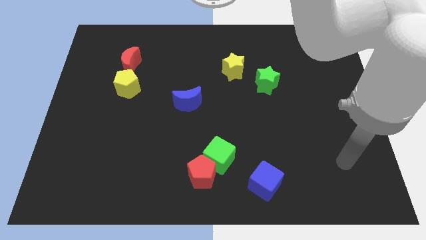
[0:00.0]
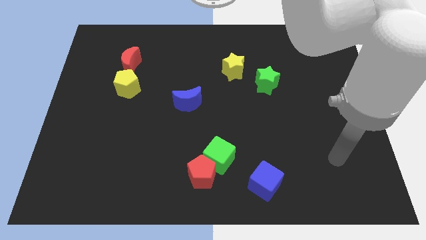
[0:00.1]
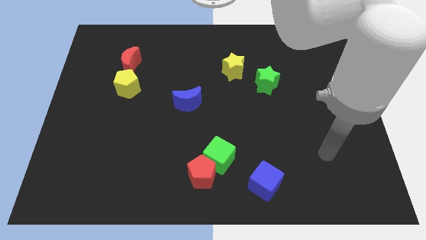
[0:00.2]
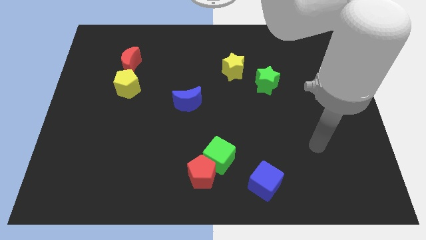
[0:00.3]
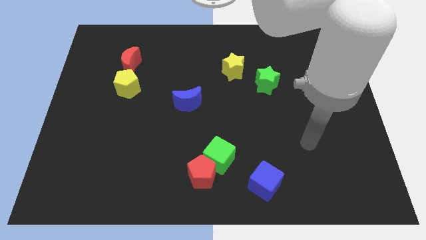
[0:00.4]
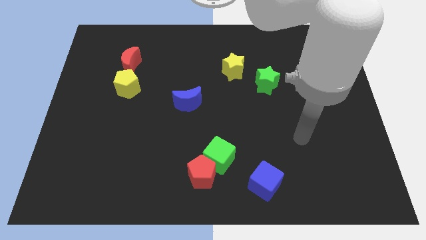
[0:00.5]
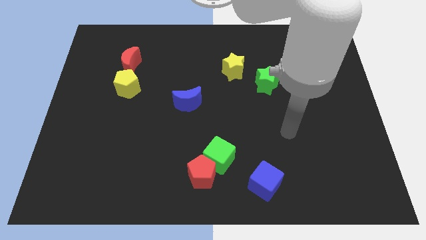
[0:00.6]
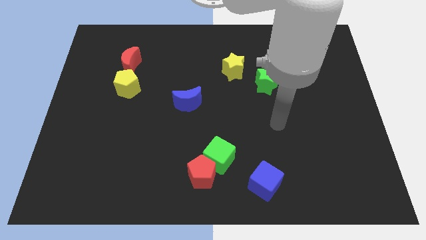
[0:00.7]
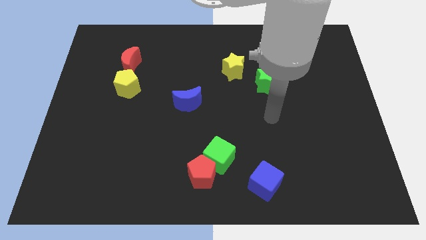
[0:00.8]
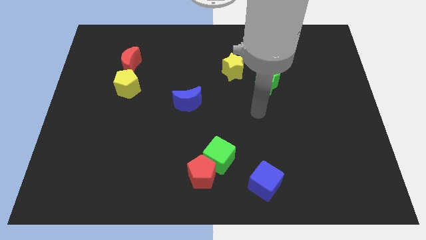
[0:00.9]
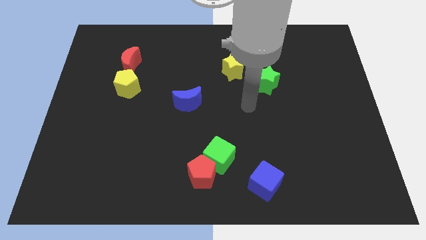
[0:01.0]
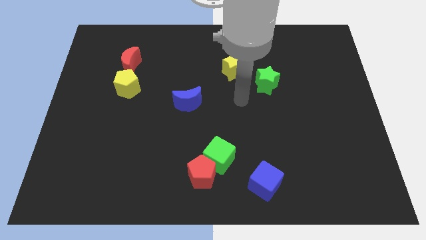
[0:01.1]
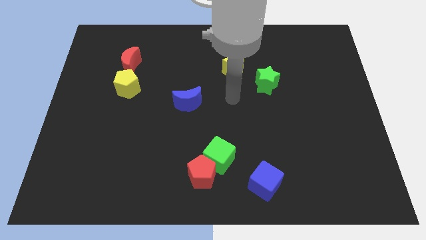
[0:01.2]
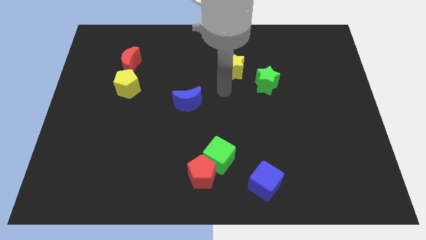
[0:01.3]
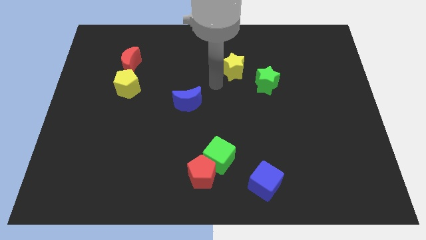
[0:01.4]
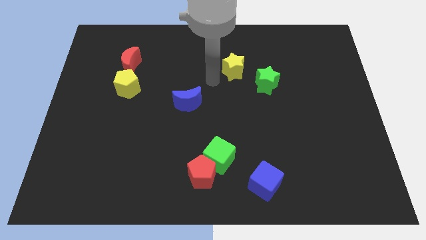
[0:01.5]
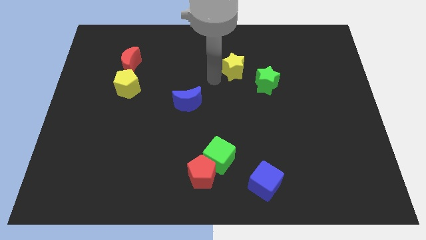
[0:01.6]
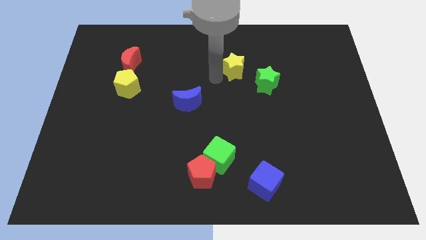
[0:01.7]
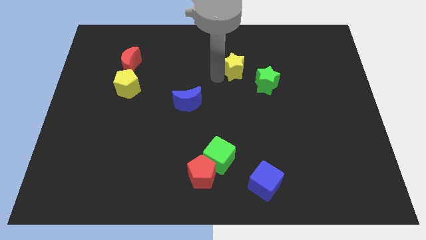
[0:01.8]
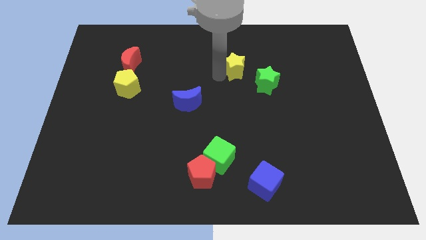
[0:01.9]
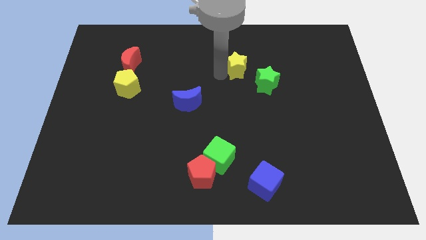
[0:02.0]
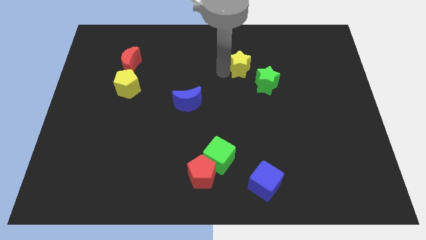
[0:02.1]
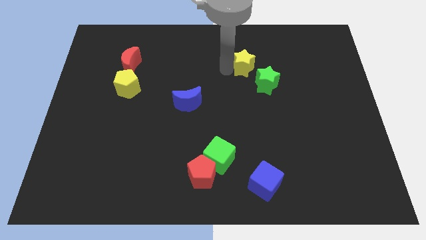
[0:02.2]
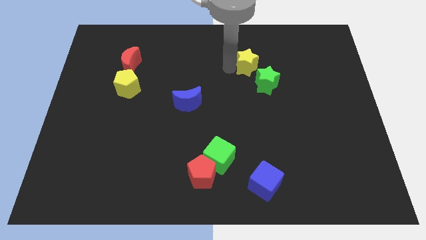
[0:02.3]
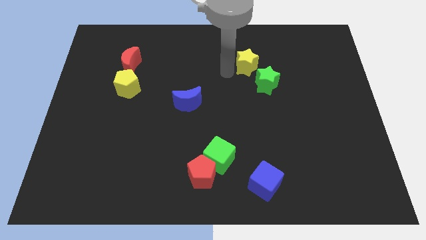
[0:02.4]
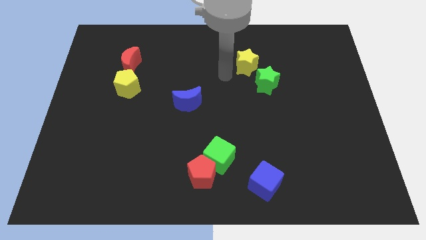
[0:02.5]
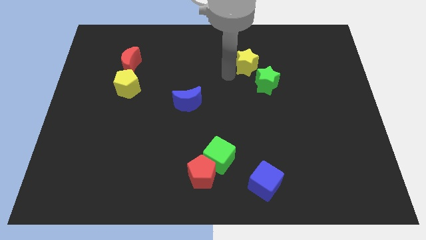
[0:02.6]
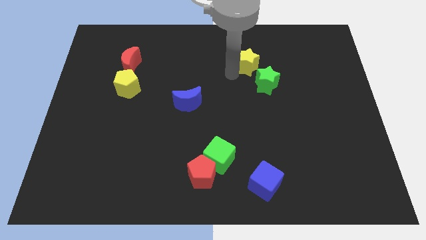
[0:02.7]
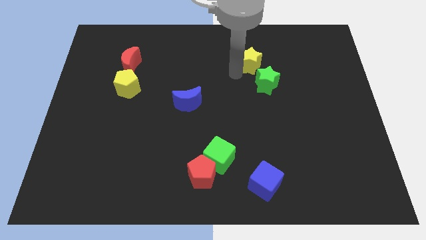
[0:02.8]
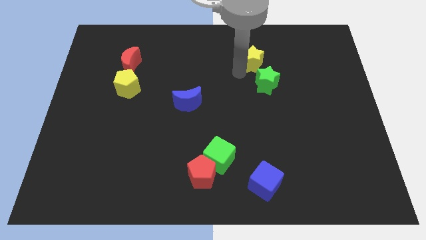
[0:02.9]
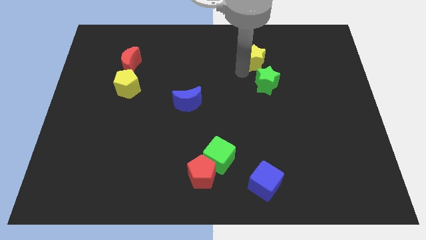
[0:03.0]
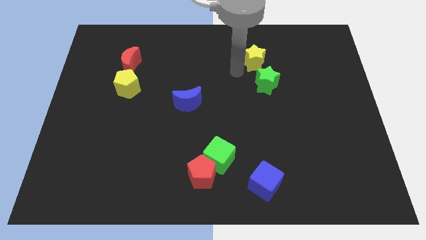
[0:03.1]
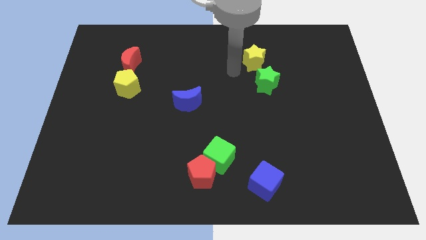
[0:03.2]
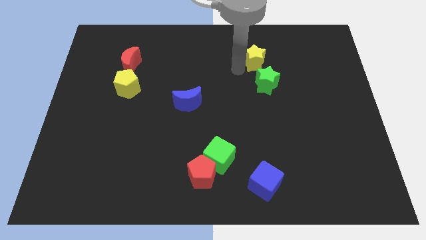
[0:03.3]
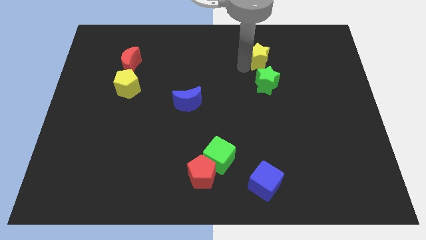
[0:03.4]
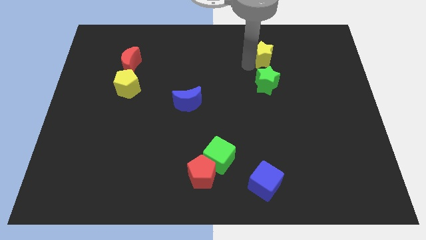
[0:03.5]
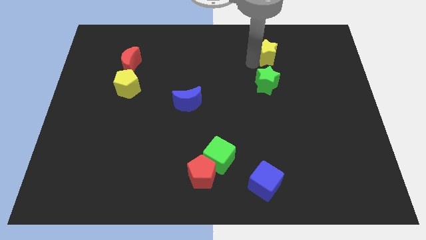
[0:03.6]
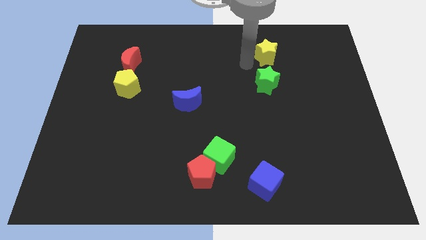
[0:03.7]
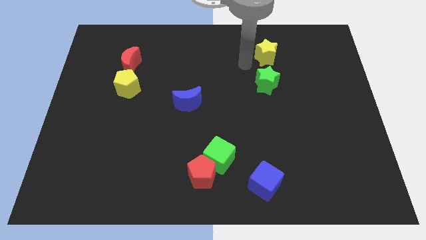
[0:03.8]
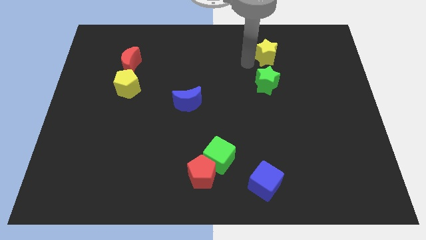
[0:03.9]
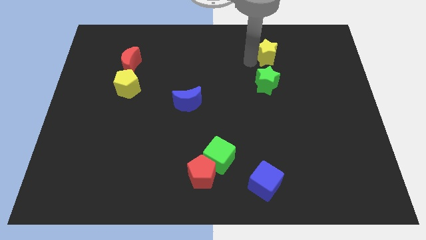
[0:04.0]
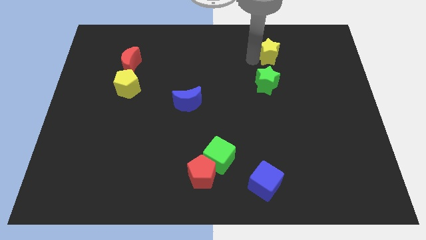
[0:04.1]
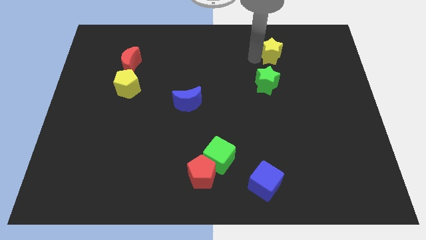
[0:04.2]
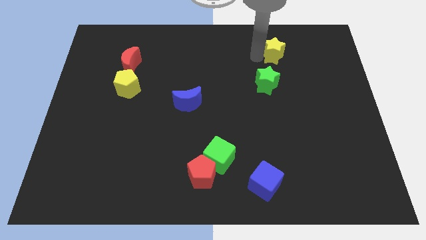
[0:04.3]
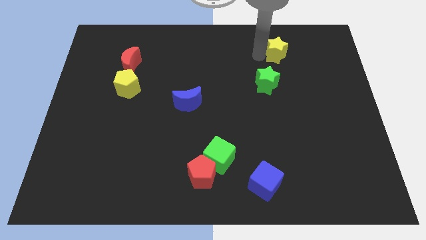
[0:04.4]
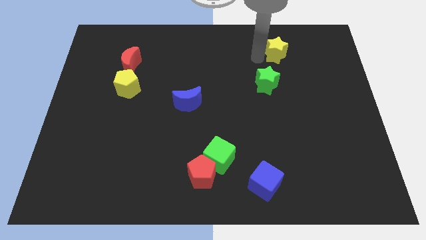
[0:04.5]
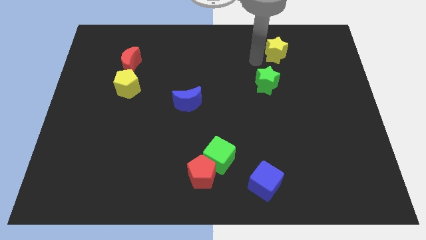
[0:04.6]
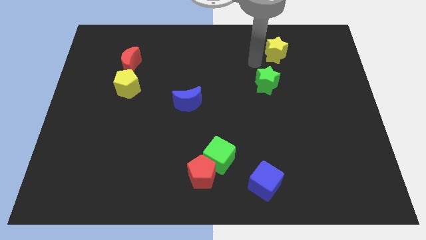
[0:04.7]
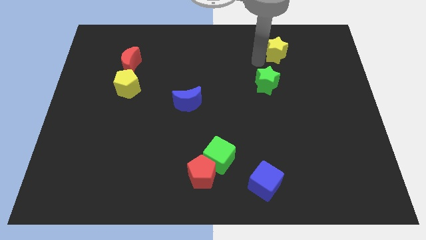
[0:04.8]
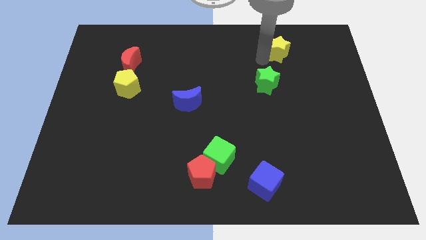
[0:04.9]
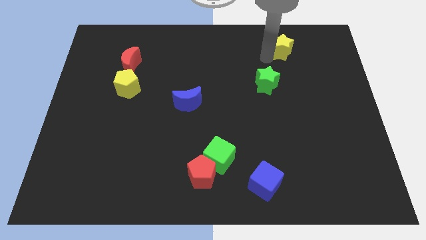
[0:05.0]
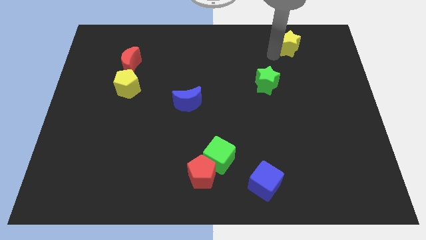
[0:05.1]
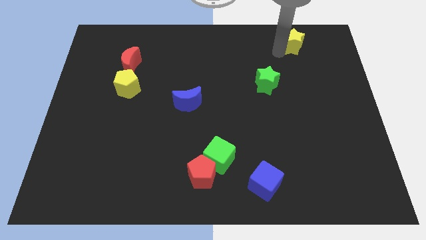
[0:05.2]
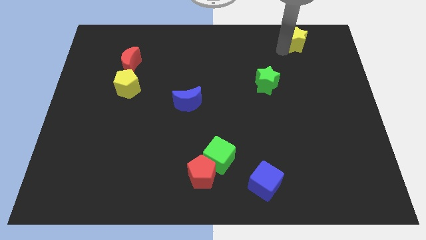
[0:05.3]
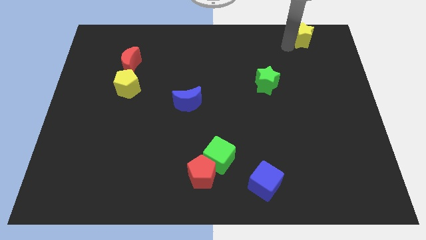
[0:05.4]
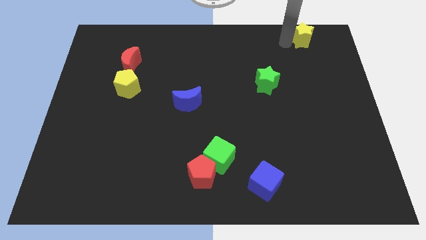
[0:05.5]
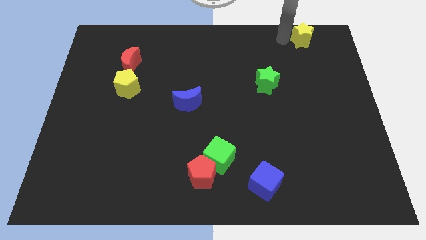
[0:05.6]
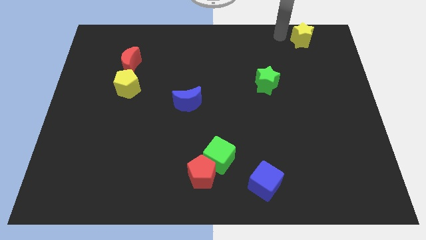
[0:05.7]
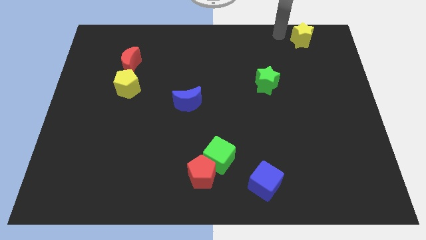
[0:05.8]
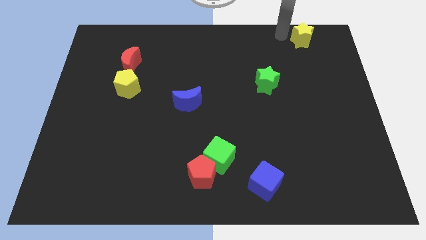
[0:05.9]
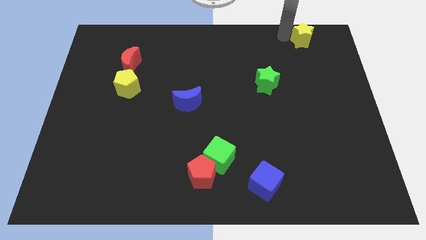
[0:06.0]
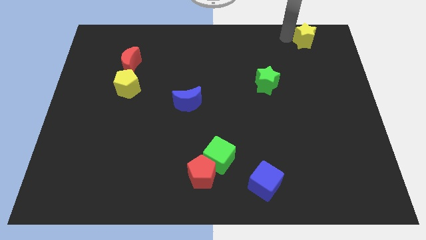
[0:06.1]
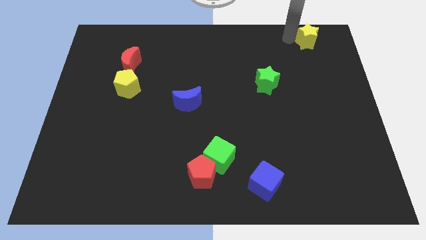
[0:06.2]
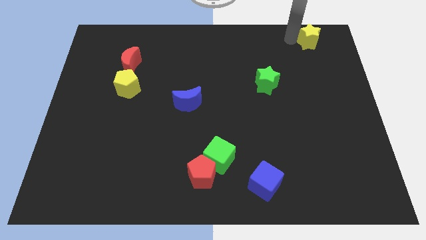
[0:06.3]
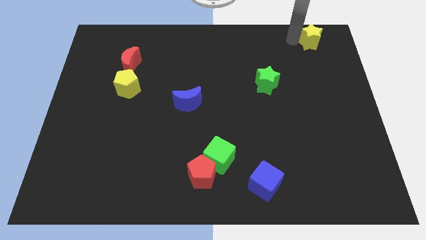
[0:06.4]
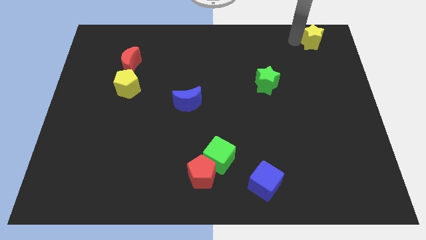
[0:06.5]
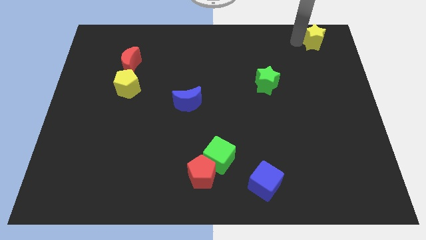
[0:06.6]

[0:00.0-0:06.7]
put the yellow star to the top right corner
